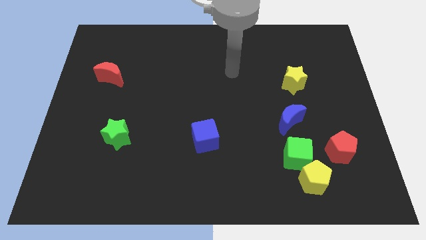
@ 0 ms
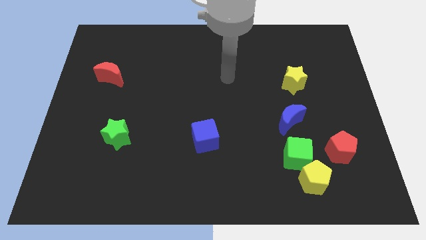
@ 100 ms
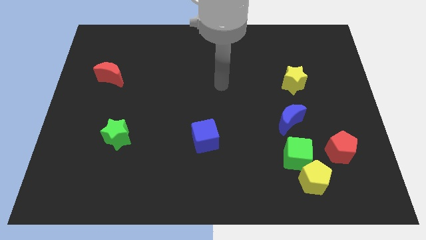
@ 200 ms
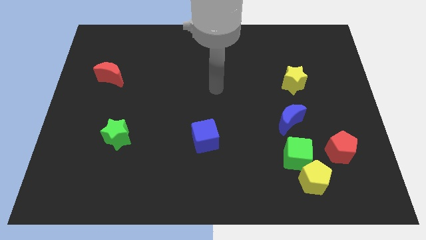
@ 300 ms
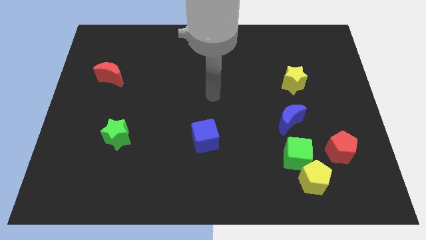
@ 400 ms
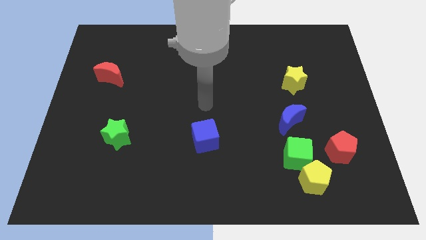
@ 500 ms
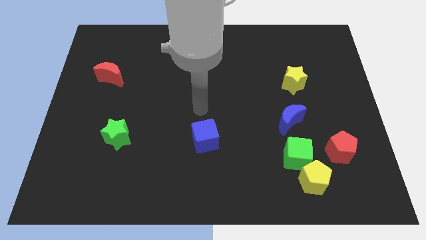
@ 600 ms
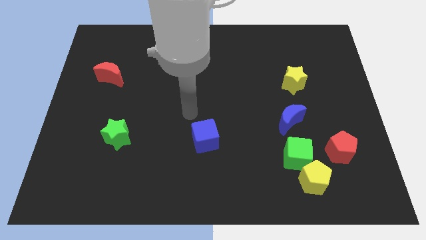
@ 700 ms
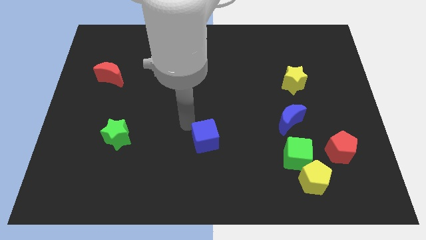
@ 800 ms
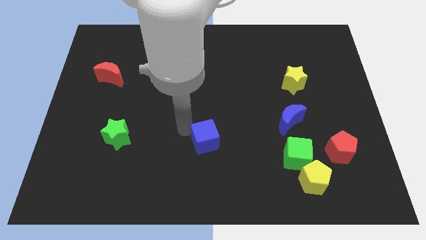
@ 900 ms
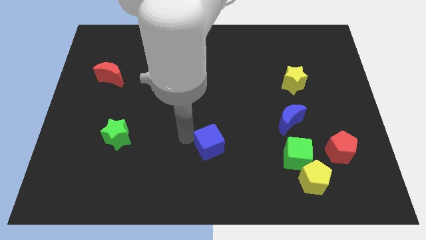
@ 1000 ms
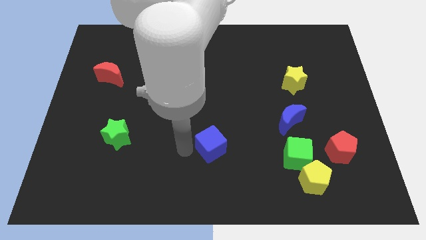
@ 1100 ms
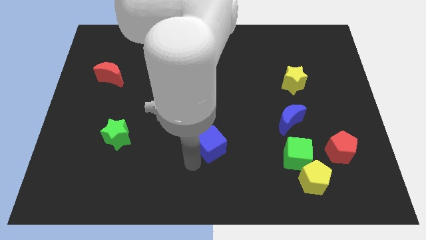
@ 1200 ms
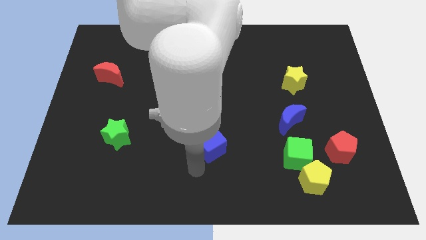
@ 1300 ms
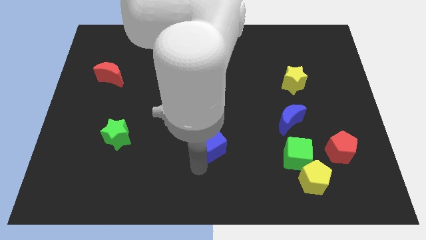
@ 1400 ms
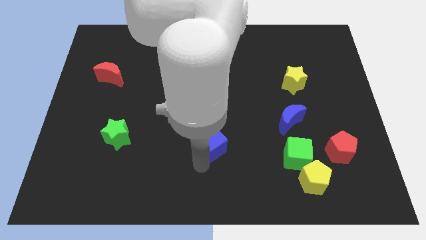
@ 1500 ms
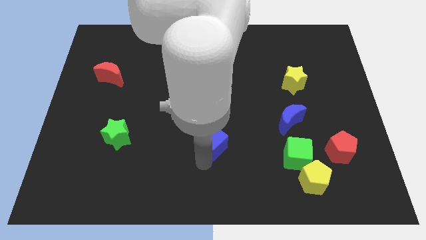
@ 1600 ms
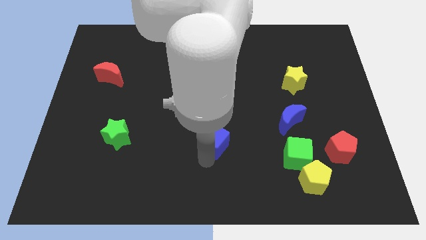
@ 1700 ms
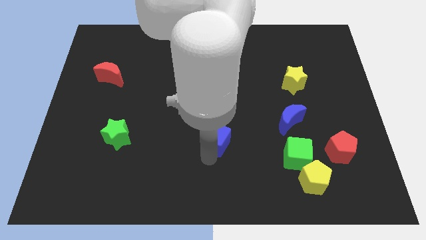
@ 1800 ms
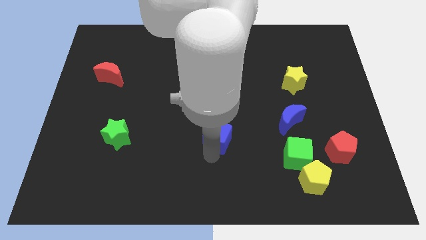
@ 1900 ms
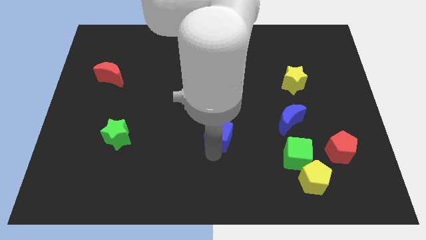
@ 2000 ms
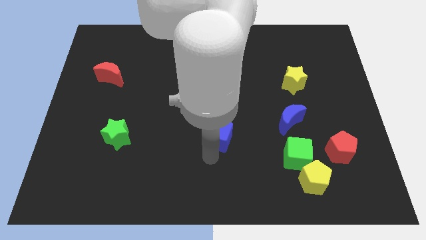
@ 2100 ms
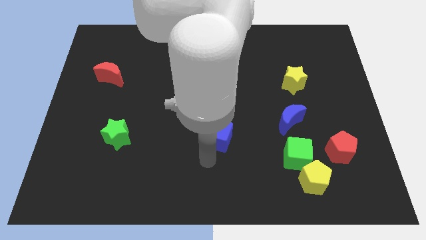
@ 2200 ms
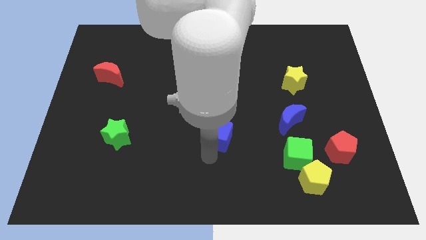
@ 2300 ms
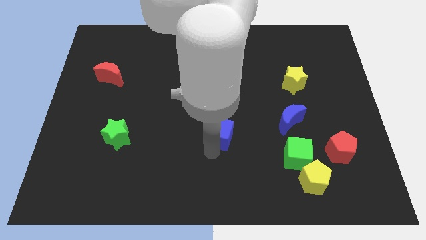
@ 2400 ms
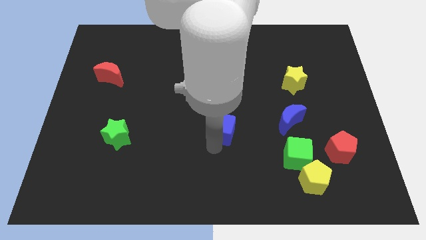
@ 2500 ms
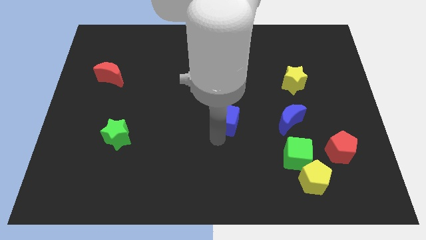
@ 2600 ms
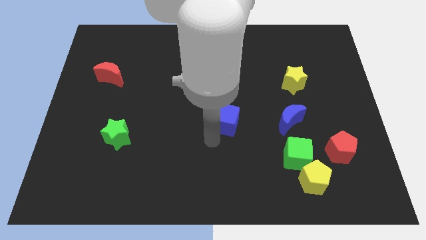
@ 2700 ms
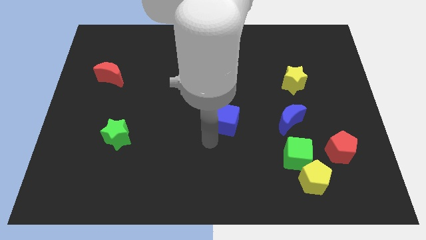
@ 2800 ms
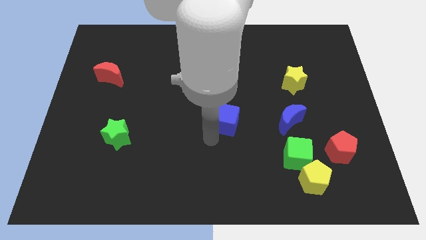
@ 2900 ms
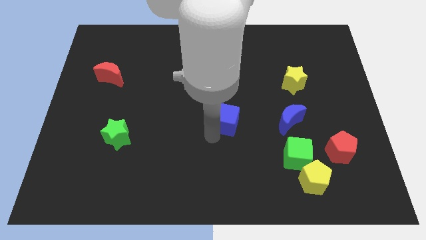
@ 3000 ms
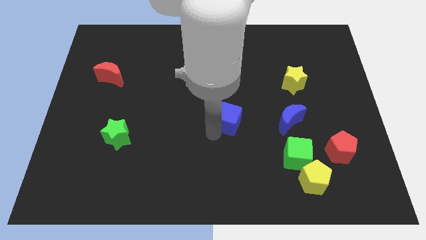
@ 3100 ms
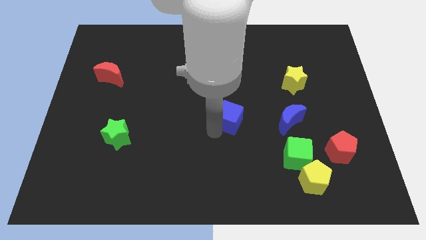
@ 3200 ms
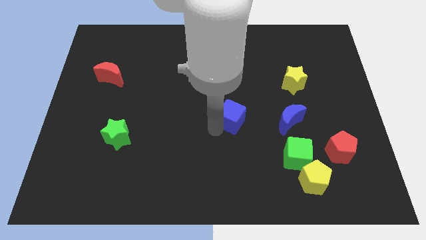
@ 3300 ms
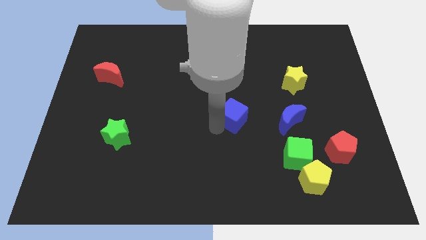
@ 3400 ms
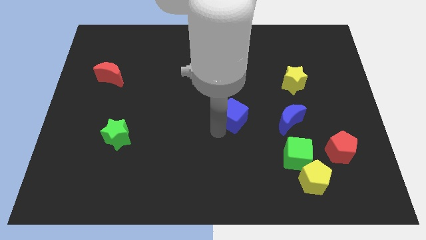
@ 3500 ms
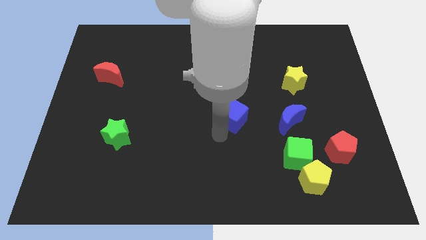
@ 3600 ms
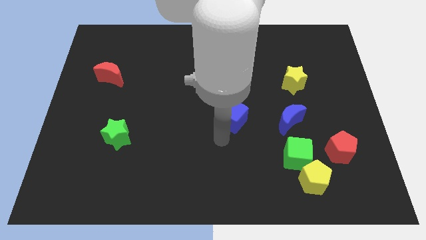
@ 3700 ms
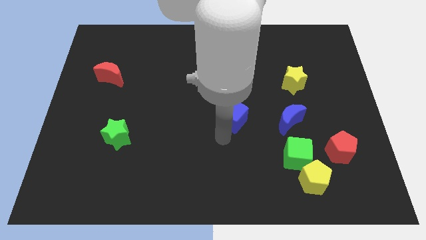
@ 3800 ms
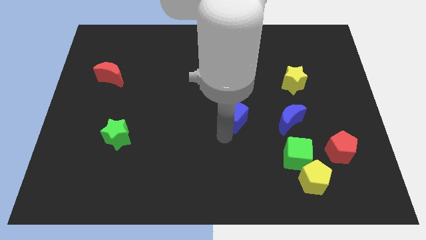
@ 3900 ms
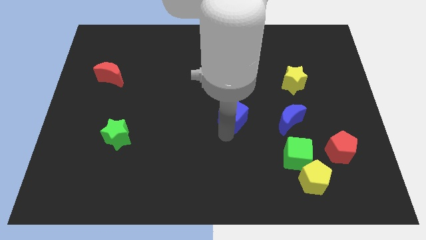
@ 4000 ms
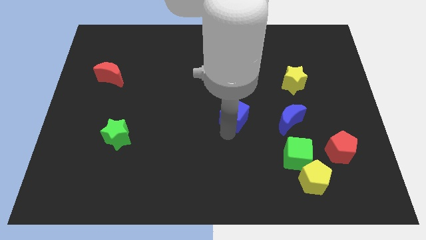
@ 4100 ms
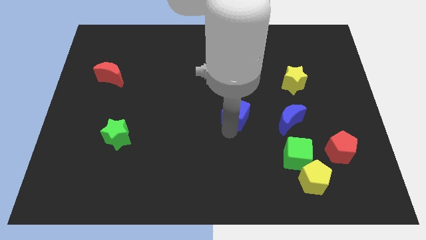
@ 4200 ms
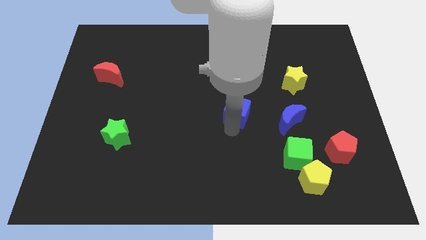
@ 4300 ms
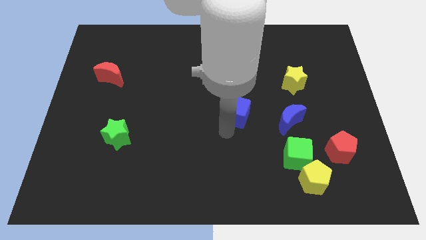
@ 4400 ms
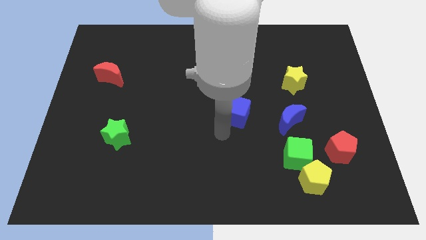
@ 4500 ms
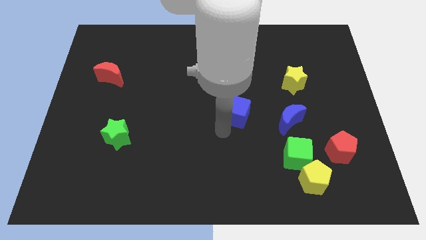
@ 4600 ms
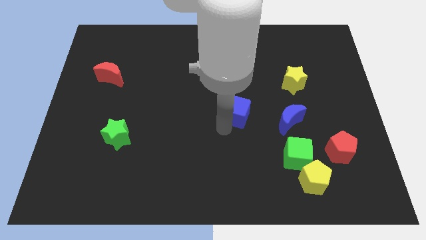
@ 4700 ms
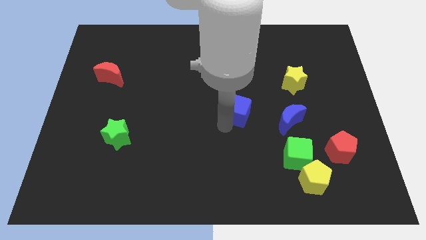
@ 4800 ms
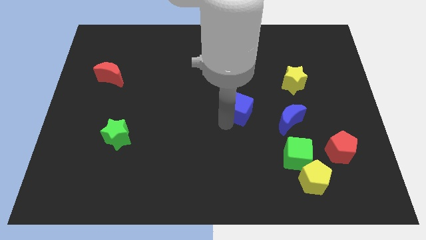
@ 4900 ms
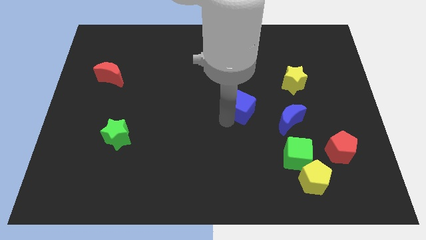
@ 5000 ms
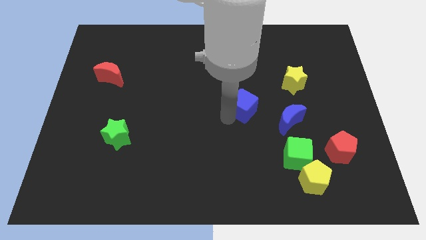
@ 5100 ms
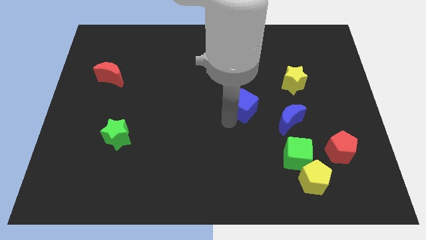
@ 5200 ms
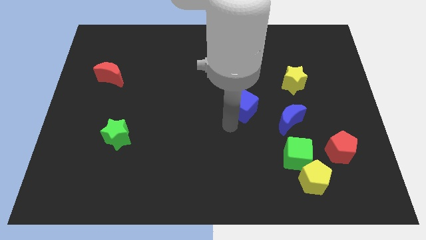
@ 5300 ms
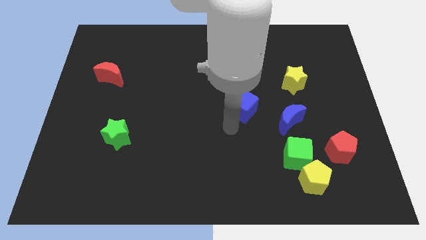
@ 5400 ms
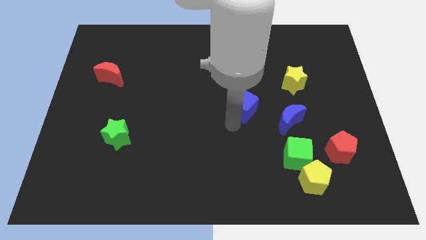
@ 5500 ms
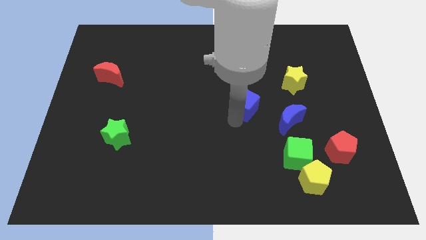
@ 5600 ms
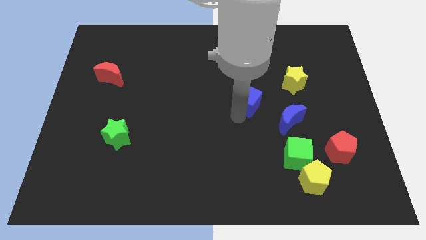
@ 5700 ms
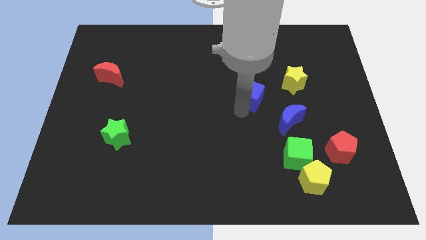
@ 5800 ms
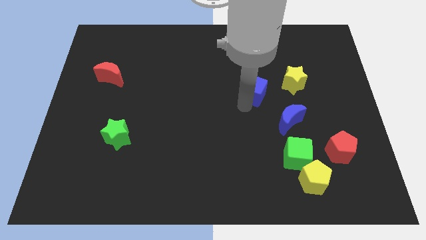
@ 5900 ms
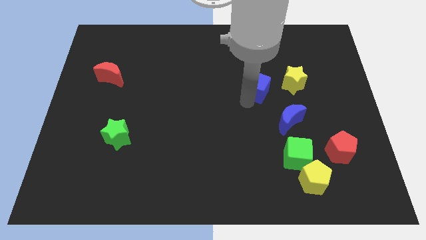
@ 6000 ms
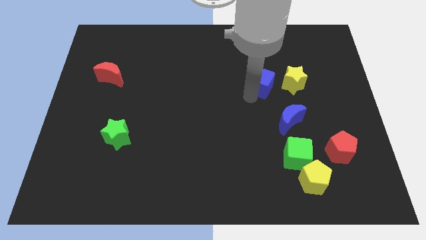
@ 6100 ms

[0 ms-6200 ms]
push the blue cube diagonally up and to the right

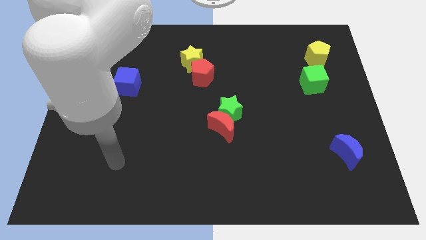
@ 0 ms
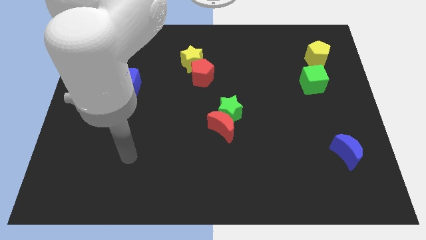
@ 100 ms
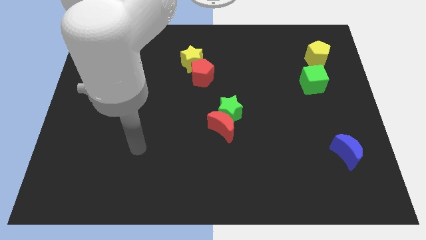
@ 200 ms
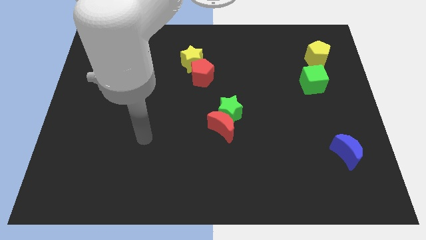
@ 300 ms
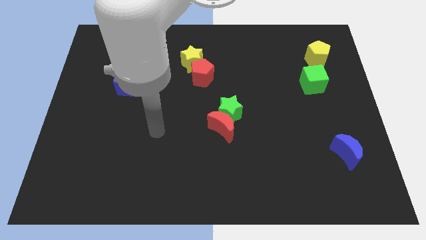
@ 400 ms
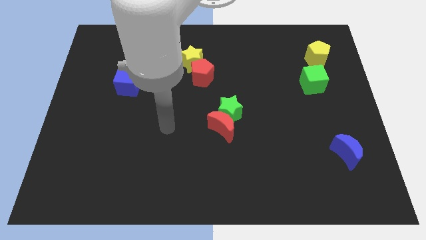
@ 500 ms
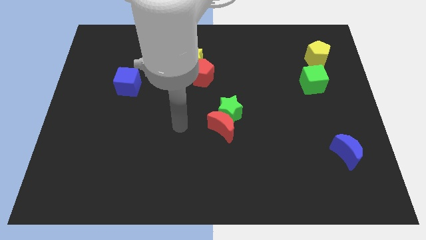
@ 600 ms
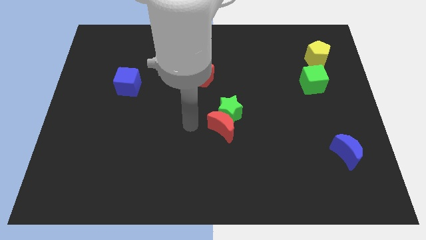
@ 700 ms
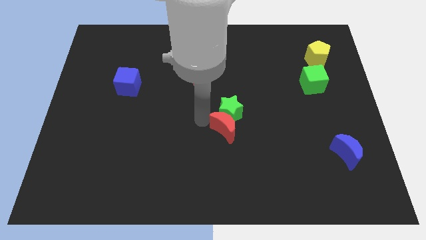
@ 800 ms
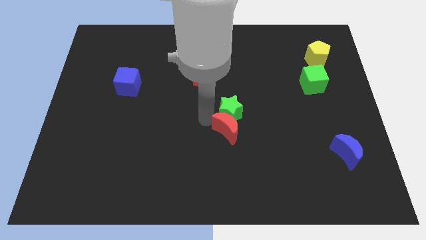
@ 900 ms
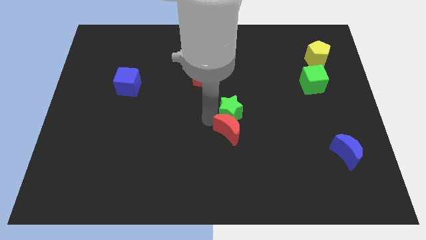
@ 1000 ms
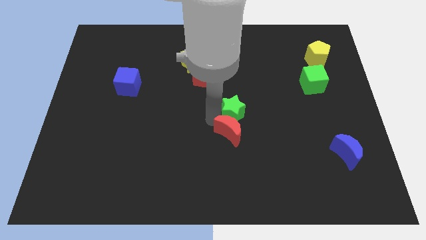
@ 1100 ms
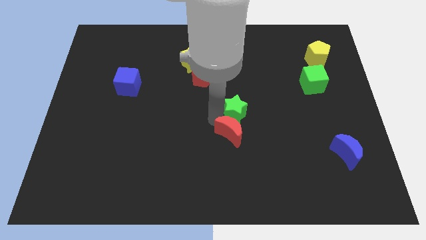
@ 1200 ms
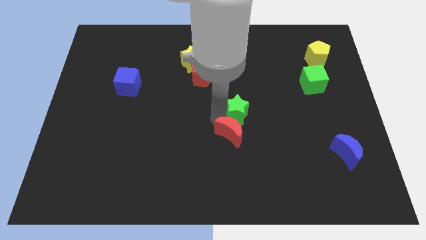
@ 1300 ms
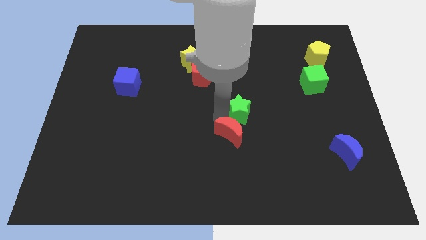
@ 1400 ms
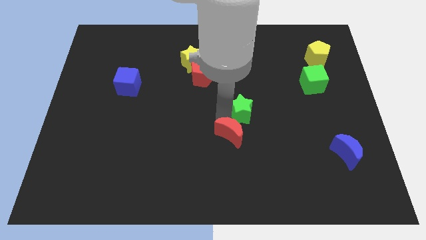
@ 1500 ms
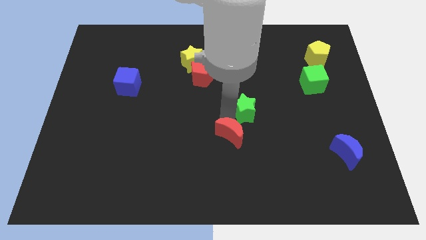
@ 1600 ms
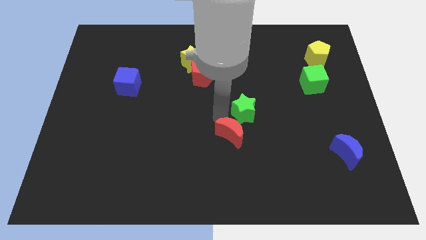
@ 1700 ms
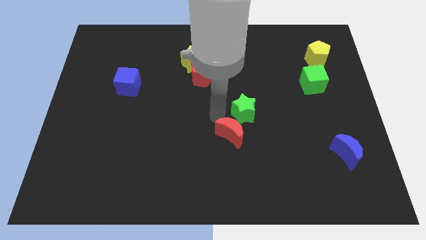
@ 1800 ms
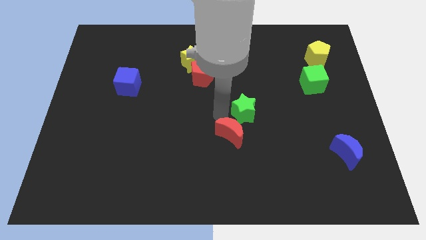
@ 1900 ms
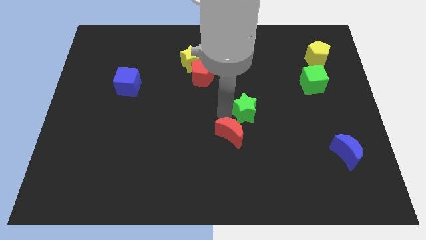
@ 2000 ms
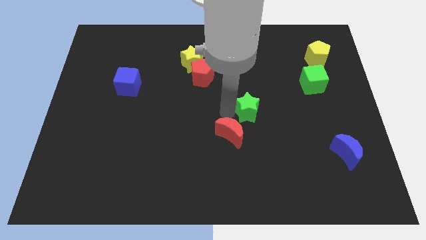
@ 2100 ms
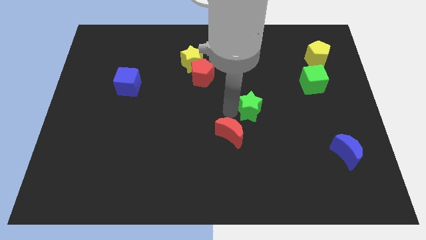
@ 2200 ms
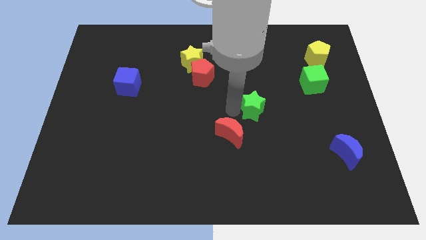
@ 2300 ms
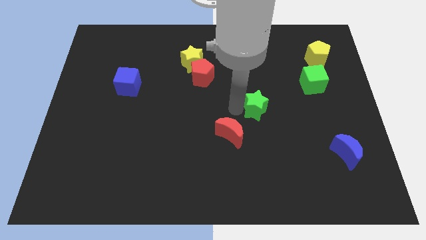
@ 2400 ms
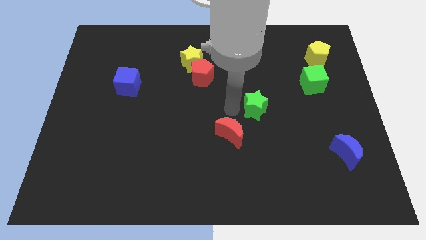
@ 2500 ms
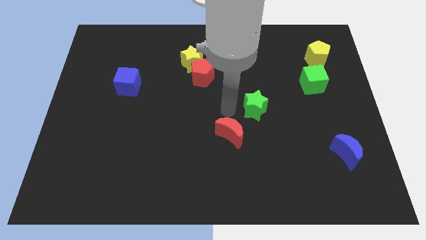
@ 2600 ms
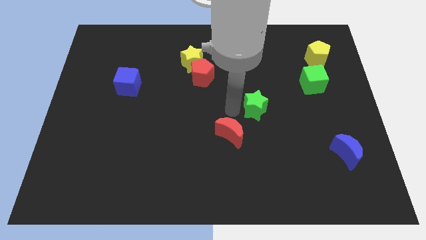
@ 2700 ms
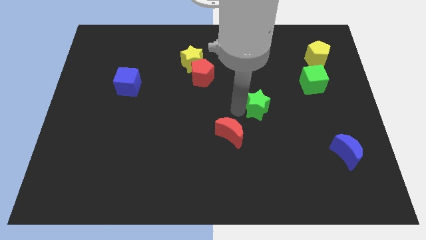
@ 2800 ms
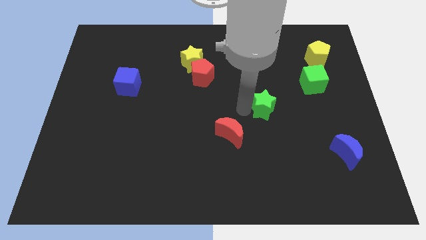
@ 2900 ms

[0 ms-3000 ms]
slightly slide the green star right
